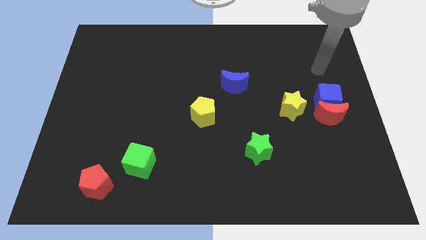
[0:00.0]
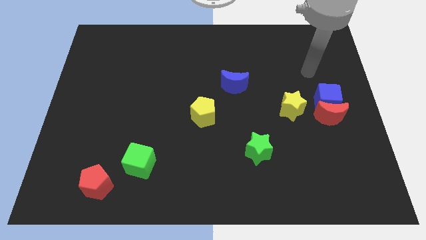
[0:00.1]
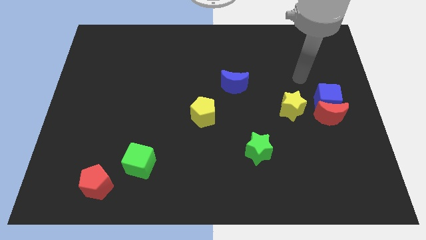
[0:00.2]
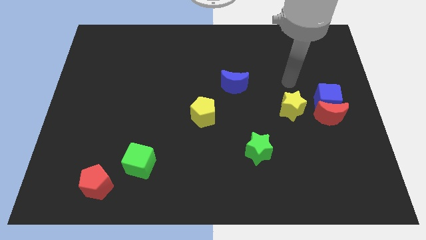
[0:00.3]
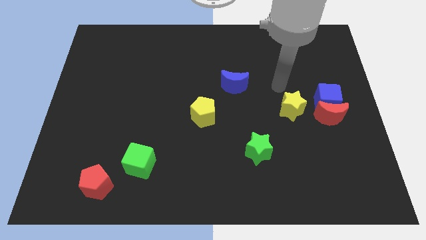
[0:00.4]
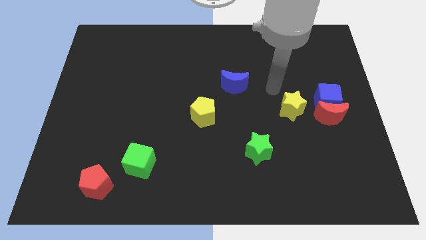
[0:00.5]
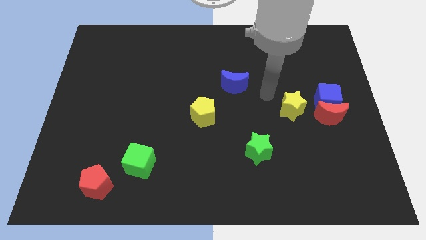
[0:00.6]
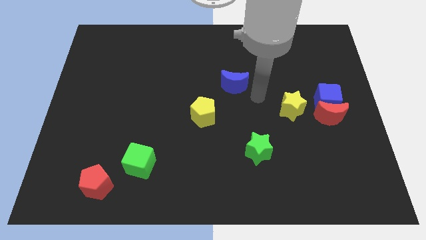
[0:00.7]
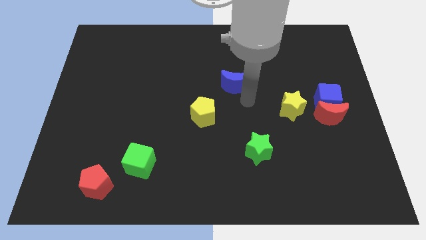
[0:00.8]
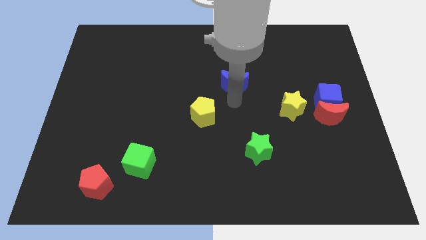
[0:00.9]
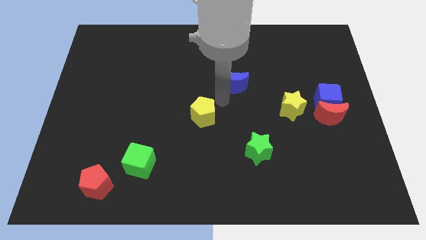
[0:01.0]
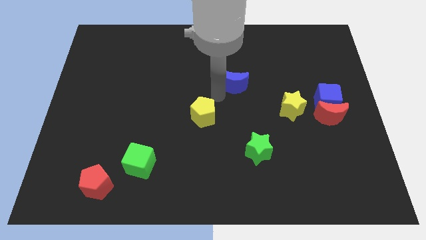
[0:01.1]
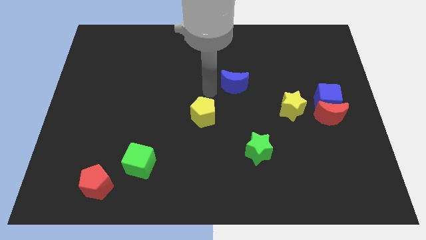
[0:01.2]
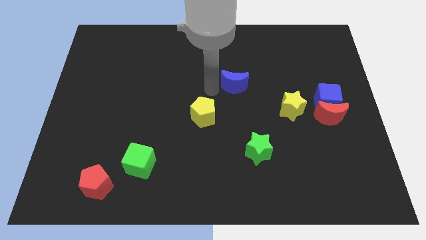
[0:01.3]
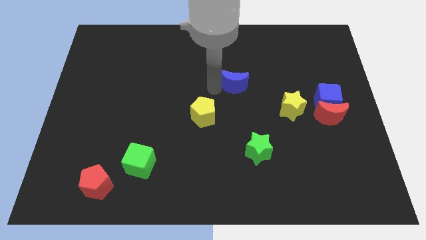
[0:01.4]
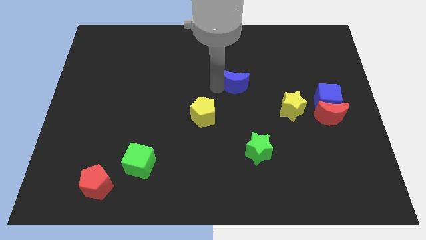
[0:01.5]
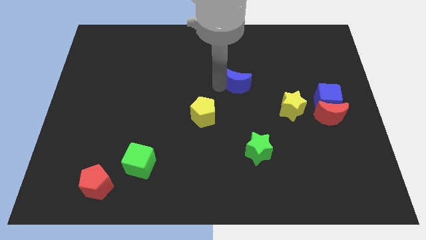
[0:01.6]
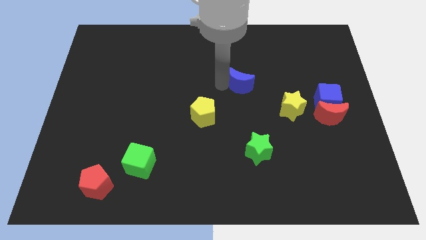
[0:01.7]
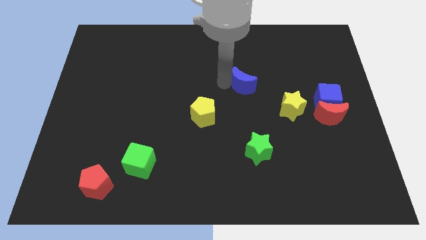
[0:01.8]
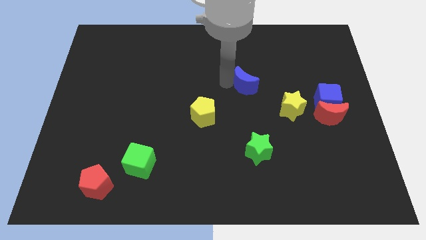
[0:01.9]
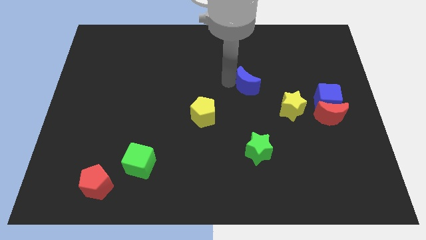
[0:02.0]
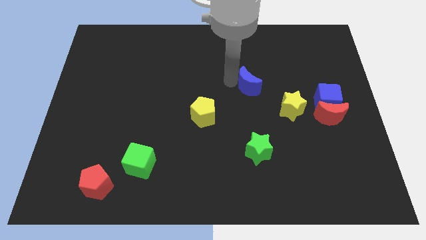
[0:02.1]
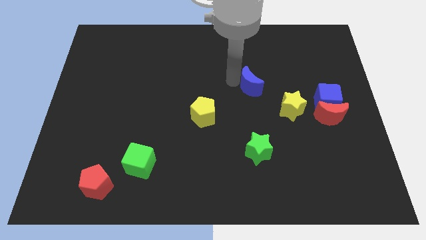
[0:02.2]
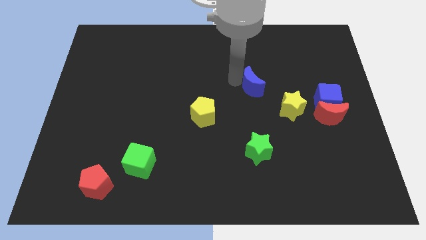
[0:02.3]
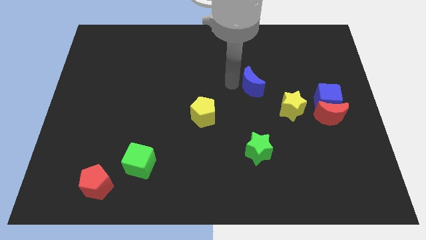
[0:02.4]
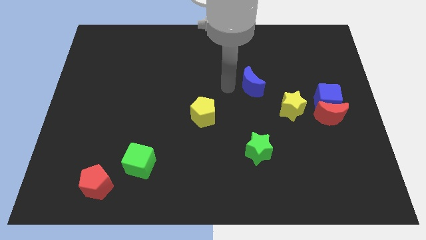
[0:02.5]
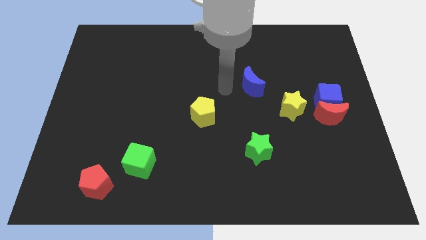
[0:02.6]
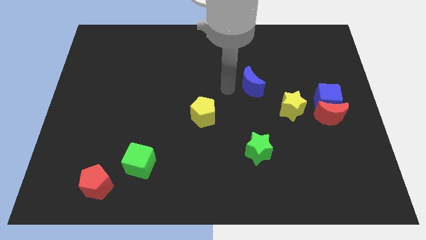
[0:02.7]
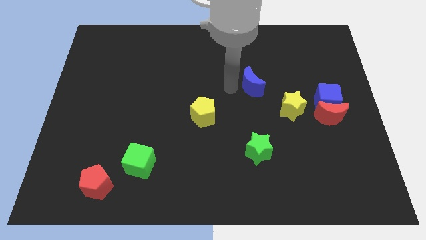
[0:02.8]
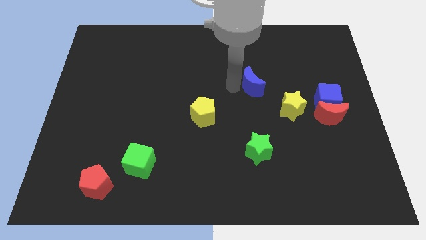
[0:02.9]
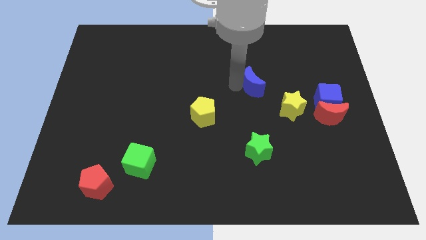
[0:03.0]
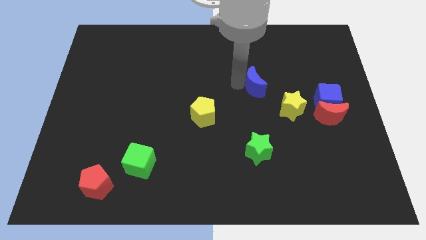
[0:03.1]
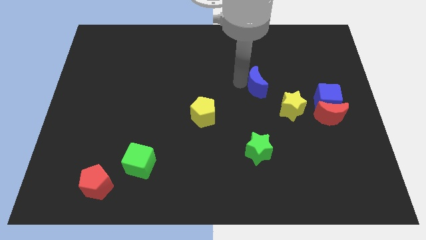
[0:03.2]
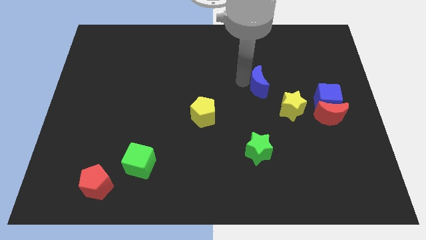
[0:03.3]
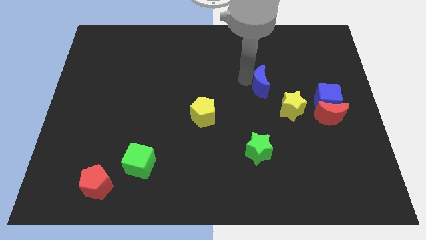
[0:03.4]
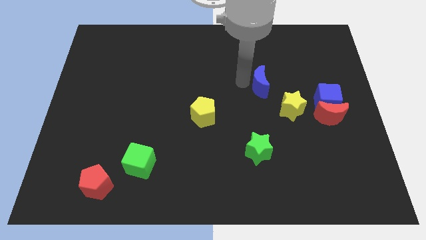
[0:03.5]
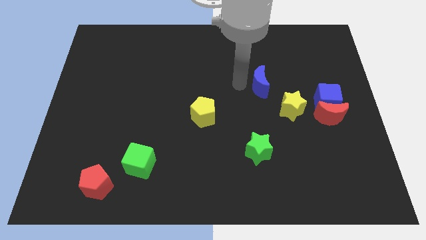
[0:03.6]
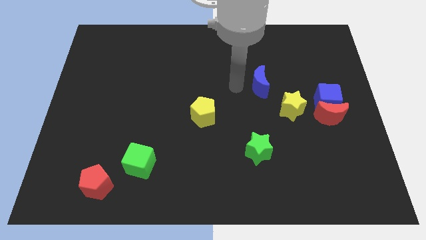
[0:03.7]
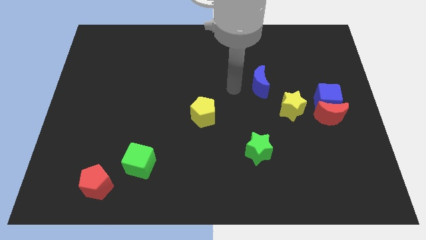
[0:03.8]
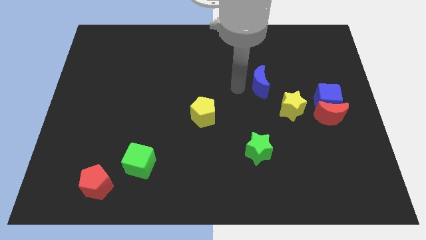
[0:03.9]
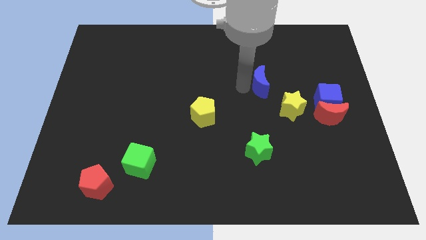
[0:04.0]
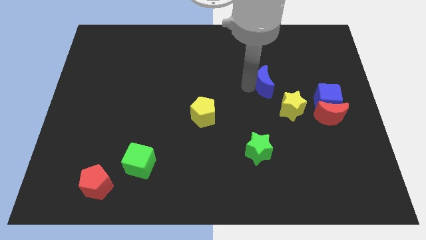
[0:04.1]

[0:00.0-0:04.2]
move the blue moon a bit to the right

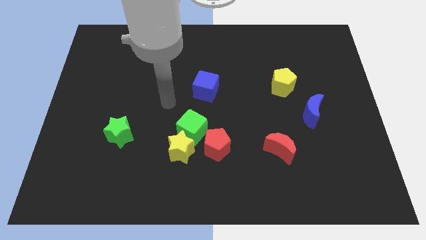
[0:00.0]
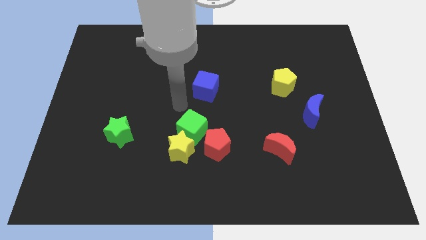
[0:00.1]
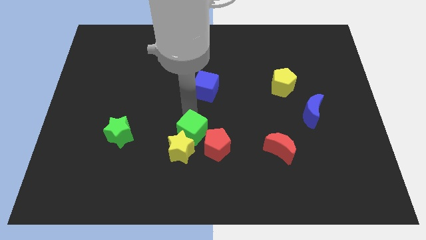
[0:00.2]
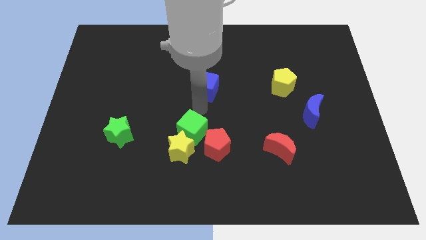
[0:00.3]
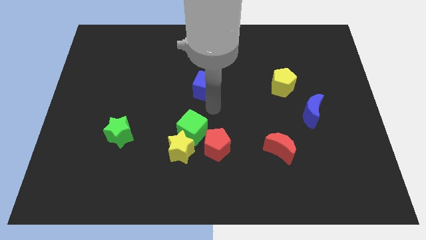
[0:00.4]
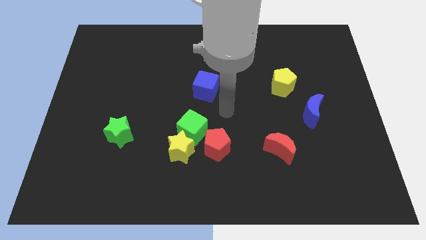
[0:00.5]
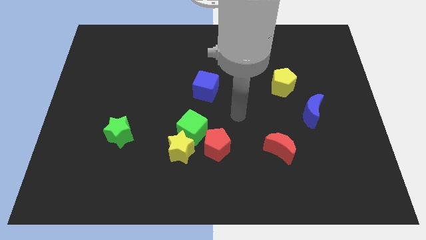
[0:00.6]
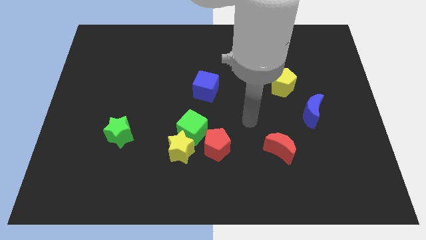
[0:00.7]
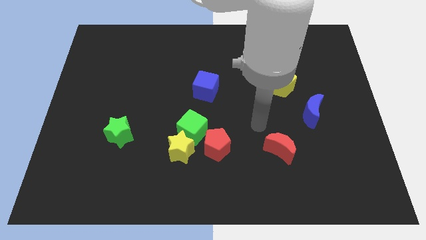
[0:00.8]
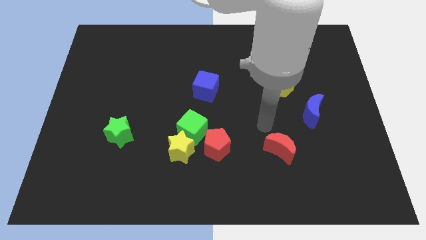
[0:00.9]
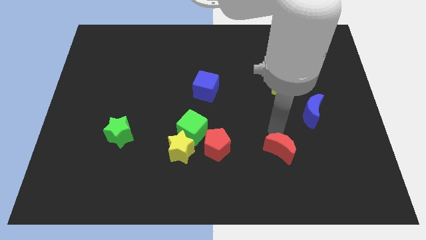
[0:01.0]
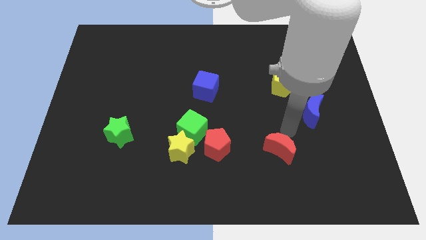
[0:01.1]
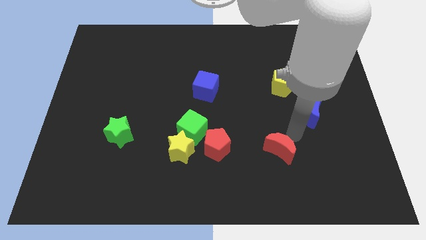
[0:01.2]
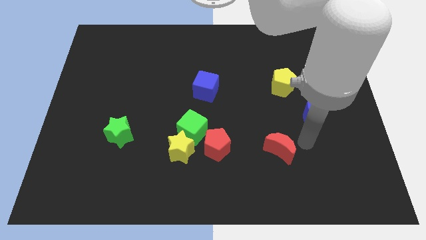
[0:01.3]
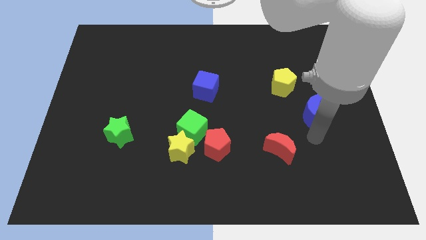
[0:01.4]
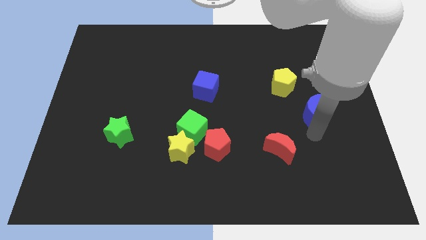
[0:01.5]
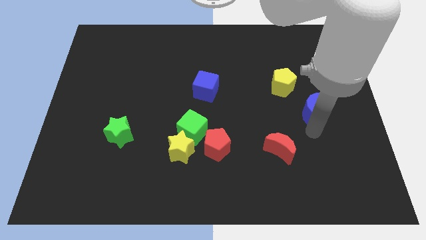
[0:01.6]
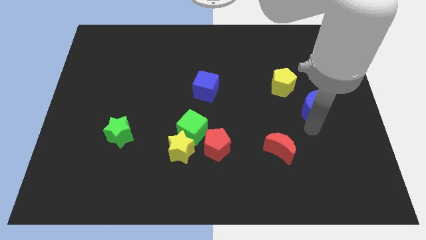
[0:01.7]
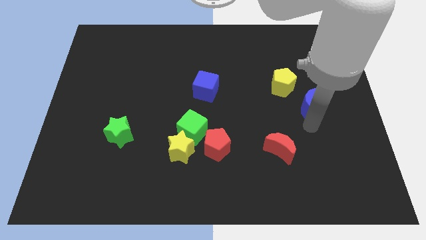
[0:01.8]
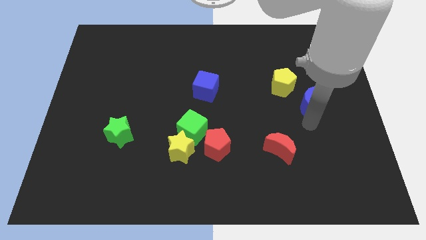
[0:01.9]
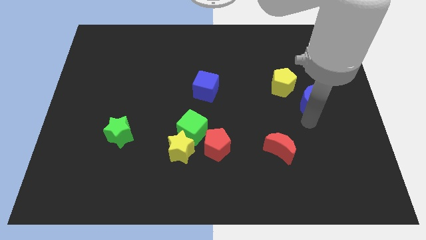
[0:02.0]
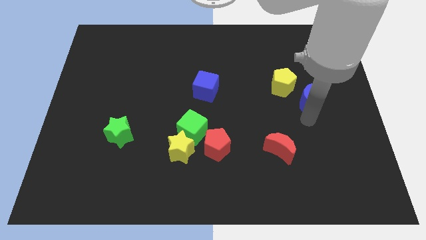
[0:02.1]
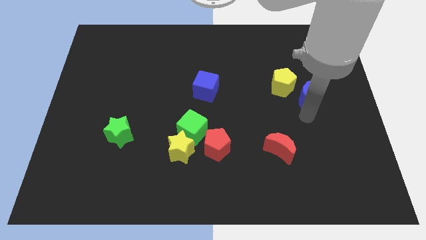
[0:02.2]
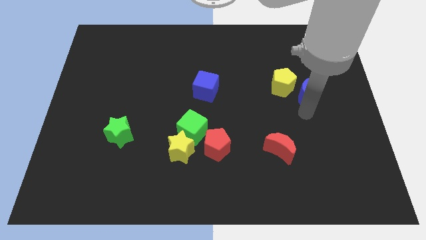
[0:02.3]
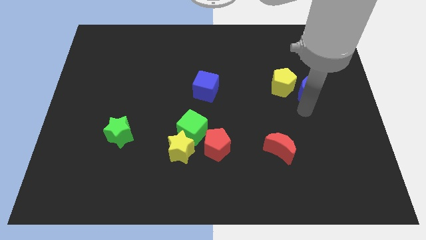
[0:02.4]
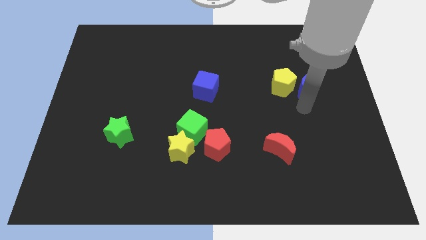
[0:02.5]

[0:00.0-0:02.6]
move the blue moon upwards a little

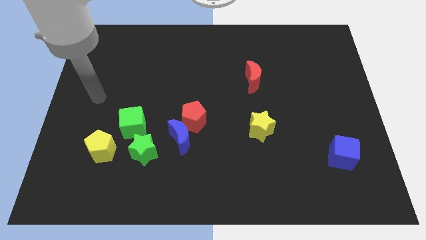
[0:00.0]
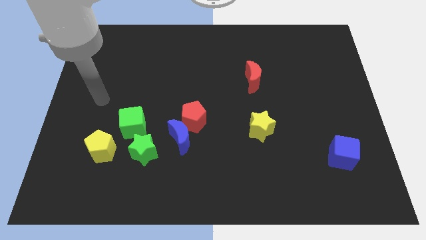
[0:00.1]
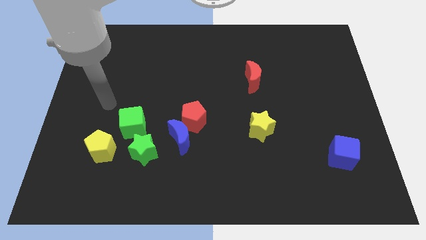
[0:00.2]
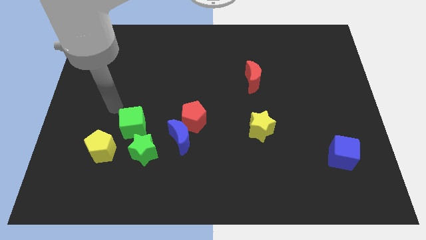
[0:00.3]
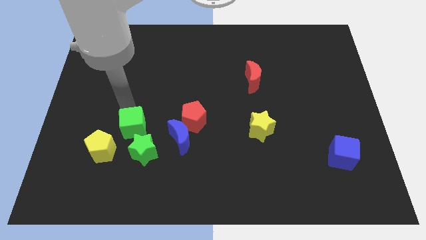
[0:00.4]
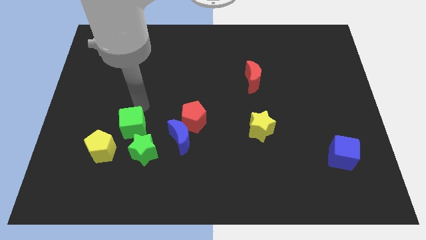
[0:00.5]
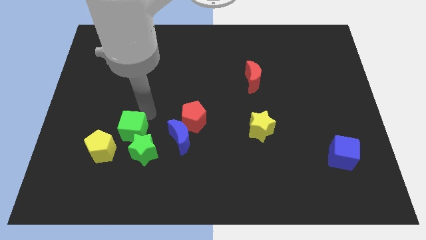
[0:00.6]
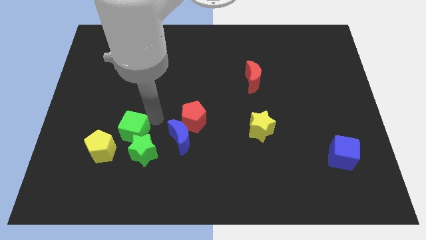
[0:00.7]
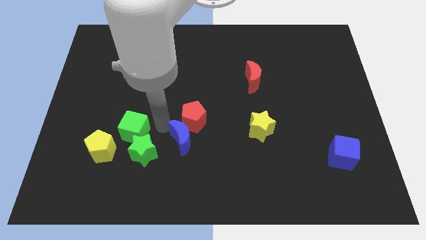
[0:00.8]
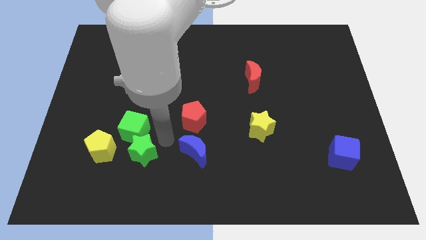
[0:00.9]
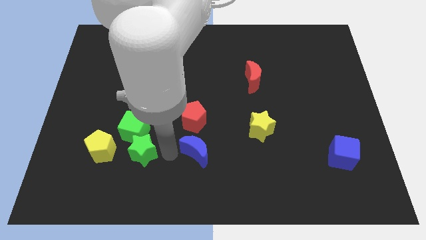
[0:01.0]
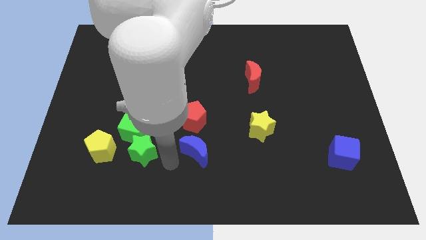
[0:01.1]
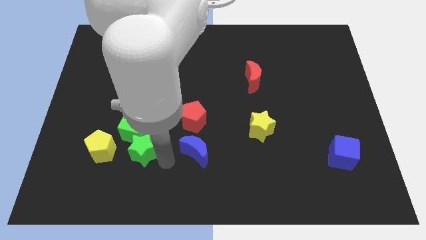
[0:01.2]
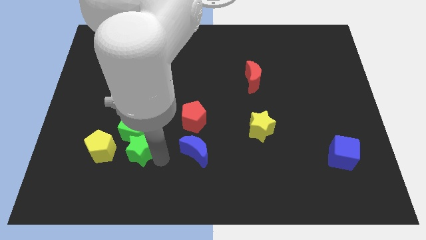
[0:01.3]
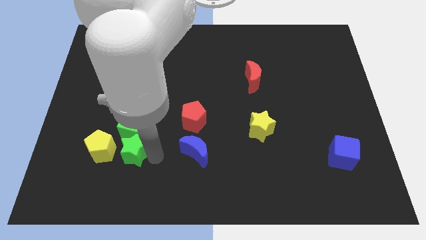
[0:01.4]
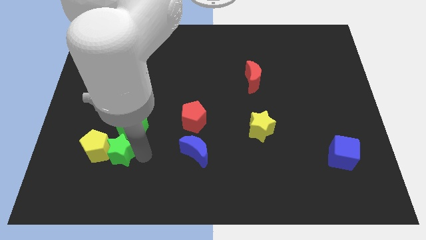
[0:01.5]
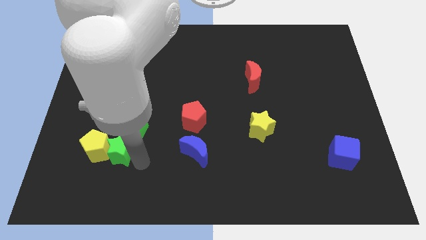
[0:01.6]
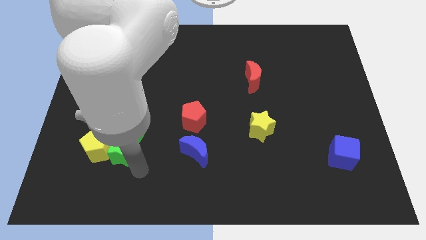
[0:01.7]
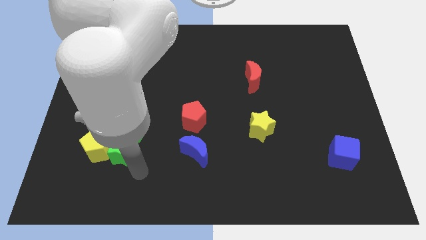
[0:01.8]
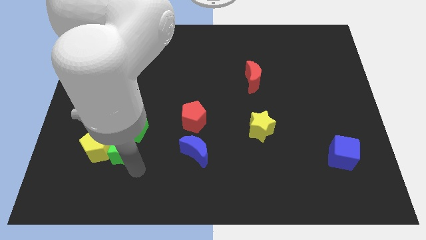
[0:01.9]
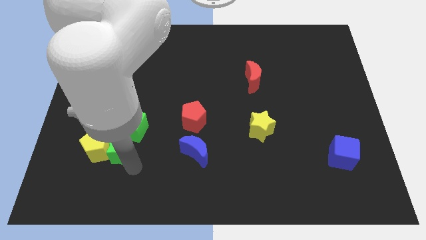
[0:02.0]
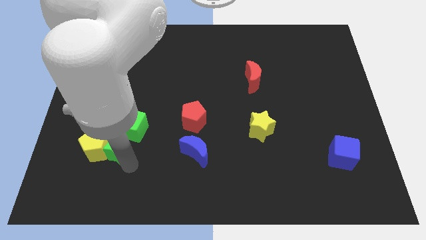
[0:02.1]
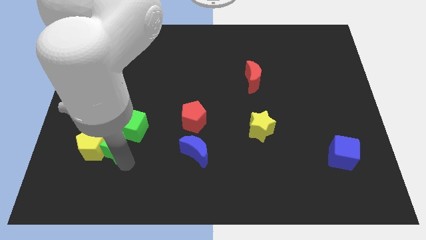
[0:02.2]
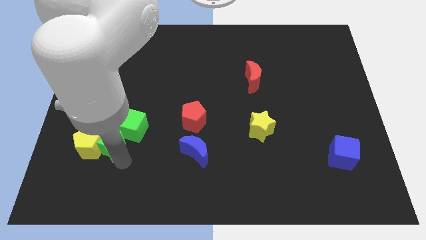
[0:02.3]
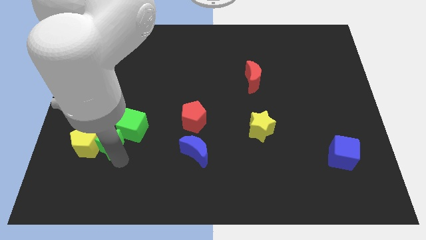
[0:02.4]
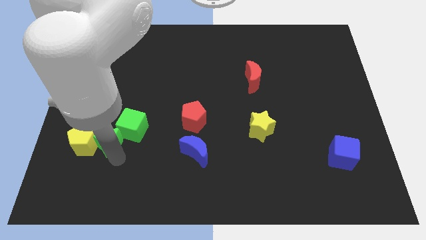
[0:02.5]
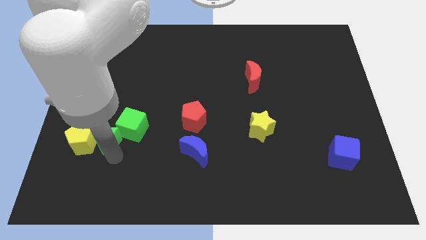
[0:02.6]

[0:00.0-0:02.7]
move the green star upwards and then left slightly
